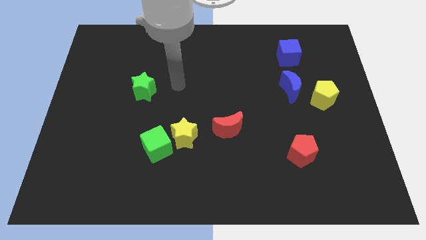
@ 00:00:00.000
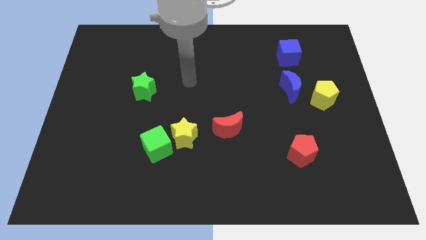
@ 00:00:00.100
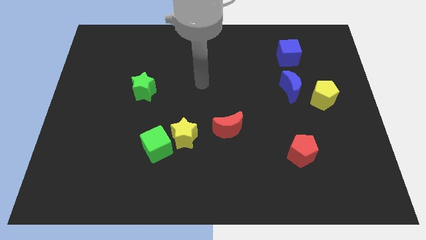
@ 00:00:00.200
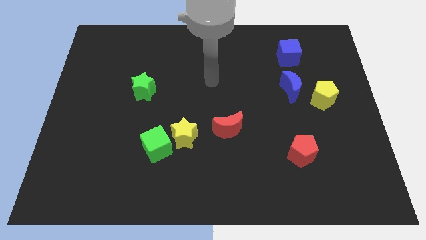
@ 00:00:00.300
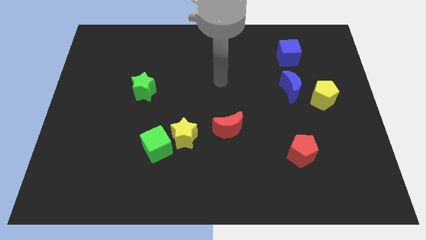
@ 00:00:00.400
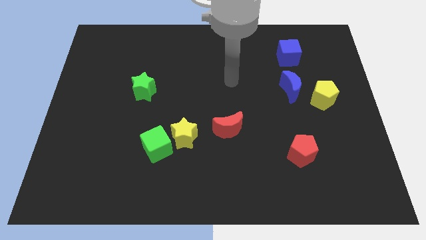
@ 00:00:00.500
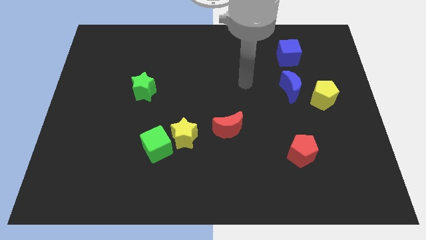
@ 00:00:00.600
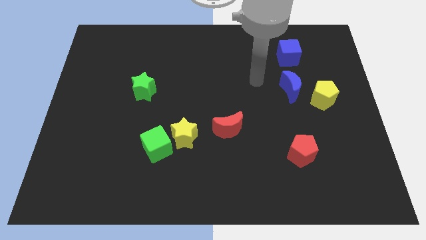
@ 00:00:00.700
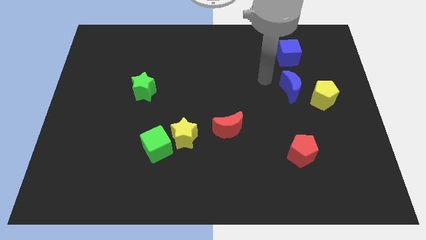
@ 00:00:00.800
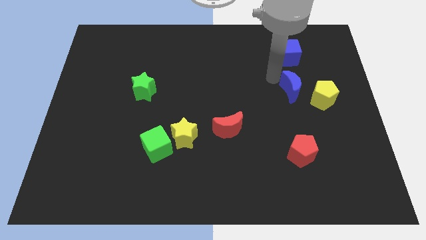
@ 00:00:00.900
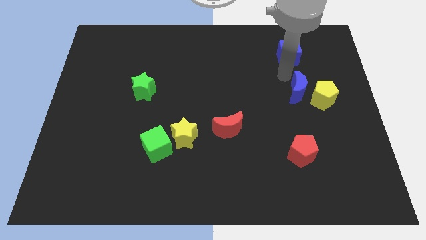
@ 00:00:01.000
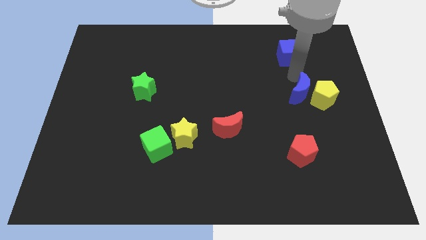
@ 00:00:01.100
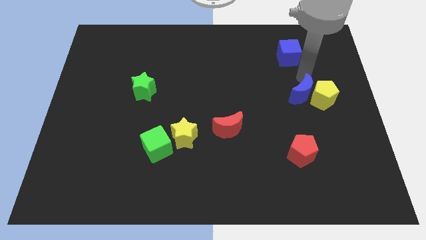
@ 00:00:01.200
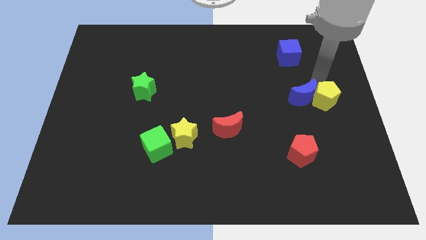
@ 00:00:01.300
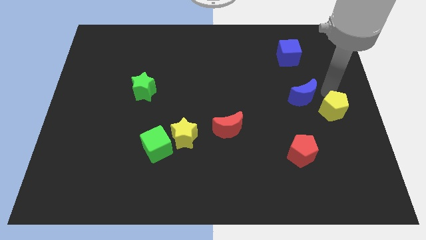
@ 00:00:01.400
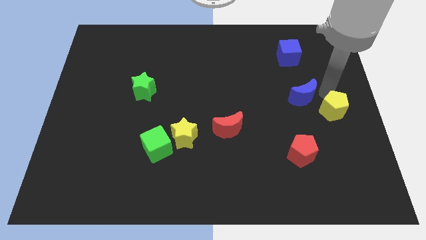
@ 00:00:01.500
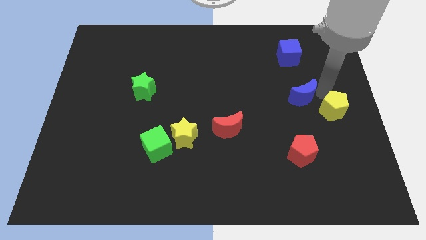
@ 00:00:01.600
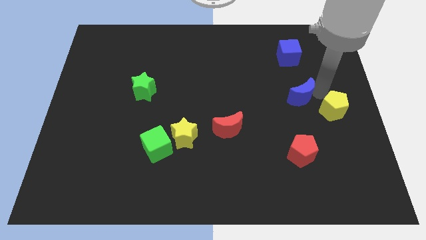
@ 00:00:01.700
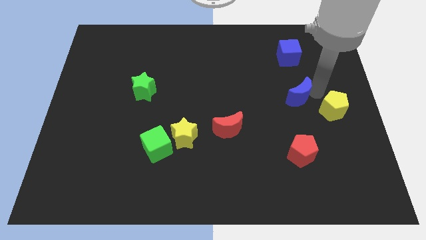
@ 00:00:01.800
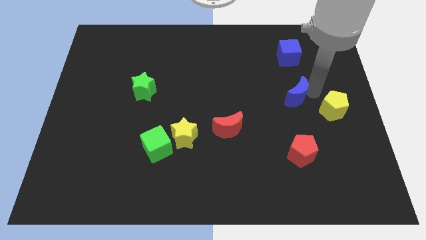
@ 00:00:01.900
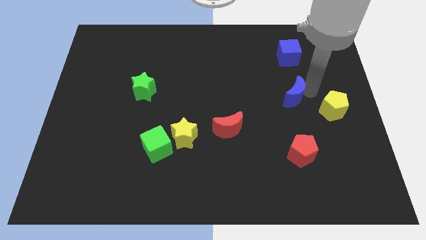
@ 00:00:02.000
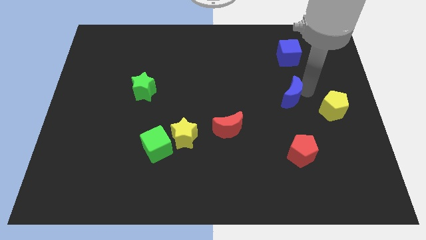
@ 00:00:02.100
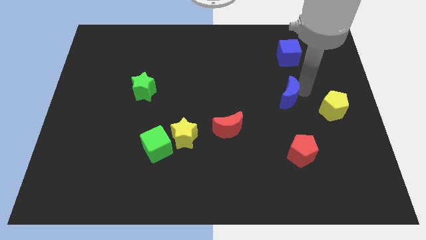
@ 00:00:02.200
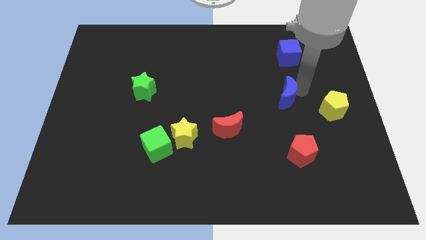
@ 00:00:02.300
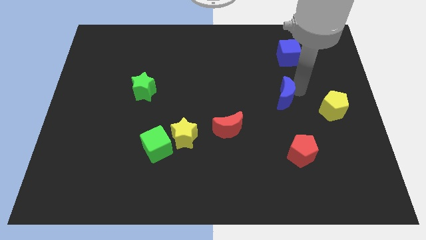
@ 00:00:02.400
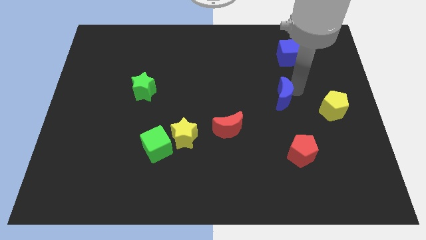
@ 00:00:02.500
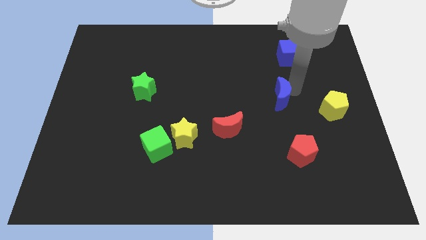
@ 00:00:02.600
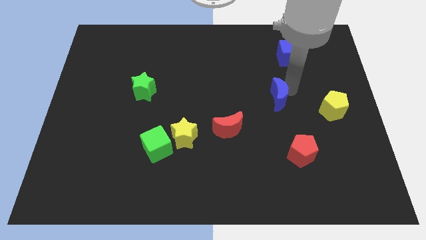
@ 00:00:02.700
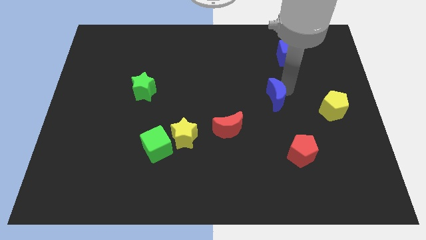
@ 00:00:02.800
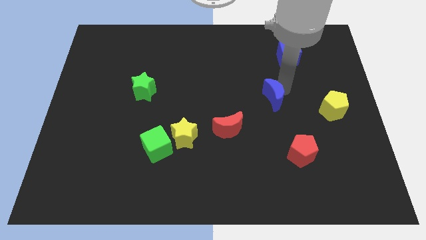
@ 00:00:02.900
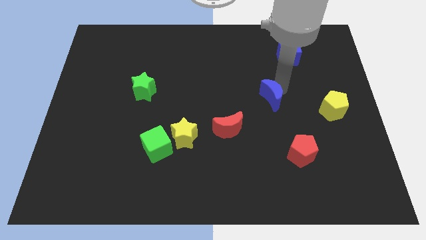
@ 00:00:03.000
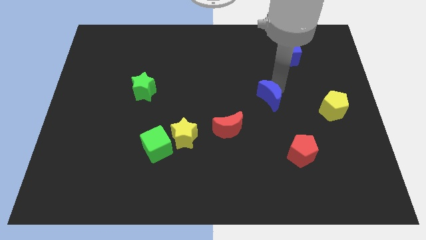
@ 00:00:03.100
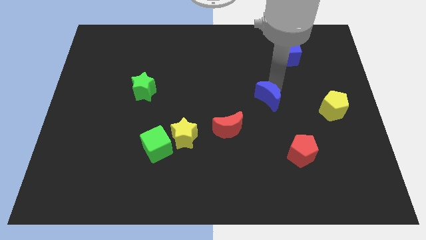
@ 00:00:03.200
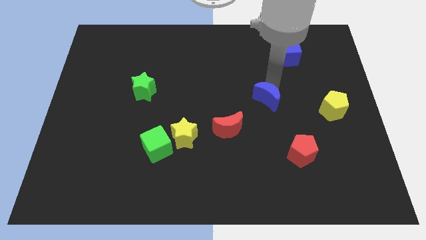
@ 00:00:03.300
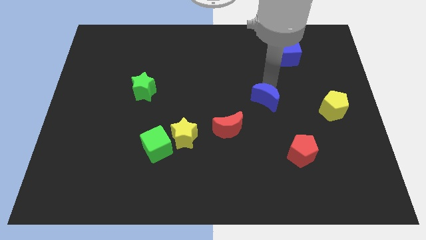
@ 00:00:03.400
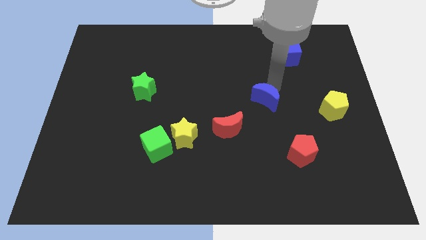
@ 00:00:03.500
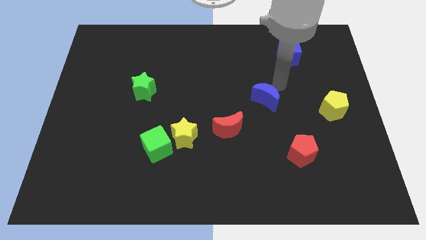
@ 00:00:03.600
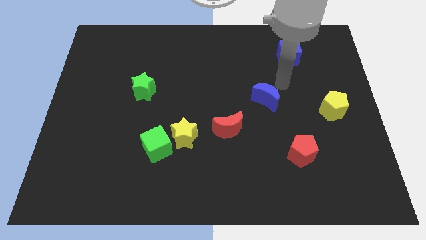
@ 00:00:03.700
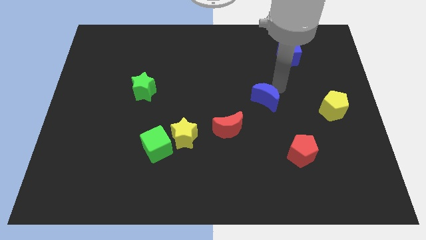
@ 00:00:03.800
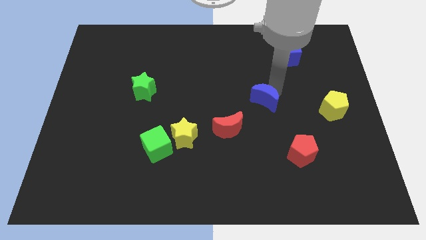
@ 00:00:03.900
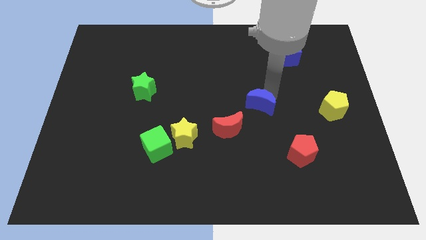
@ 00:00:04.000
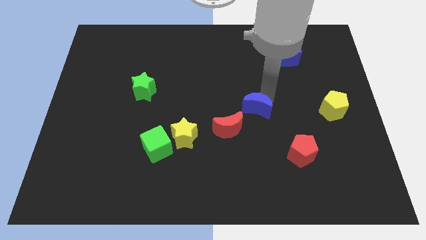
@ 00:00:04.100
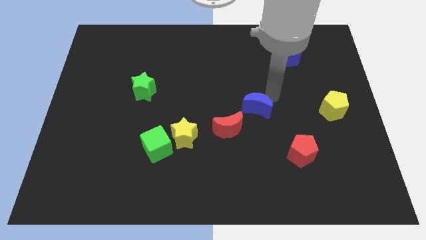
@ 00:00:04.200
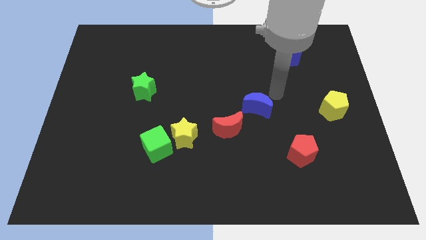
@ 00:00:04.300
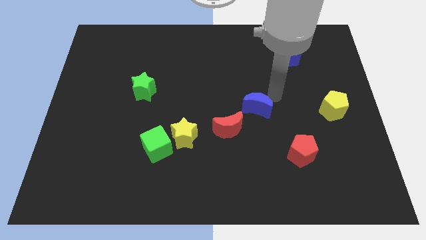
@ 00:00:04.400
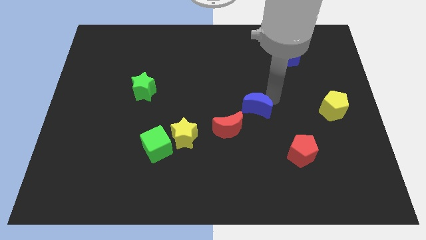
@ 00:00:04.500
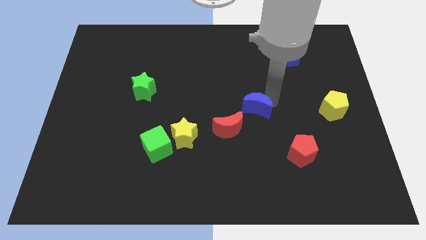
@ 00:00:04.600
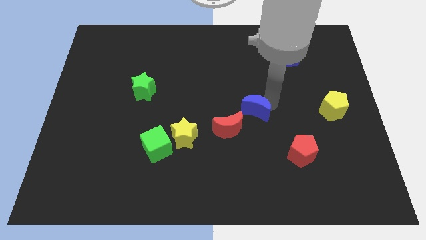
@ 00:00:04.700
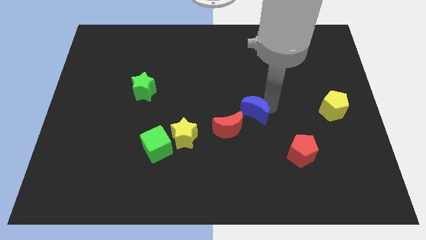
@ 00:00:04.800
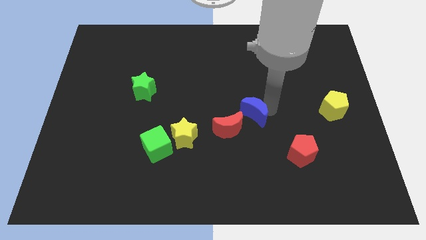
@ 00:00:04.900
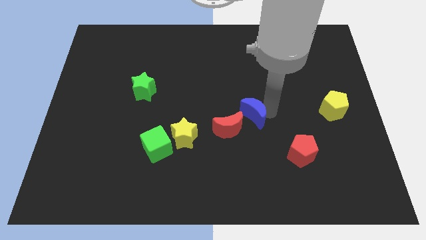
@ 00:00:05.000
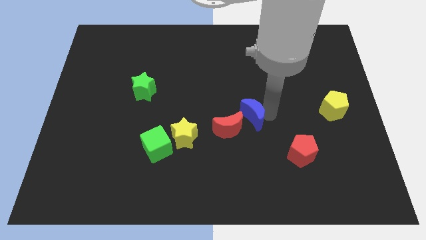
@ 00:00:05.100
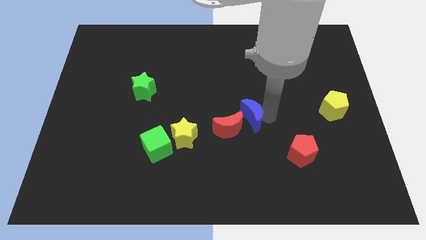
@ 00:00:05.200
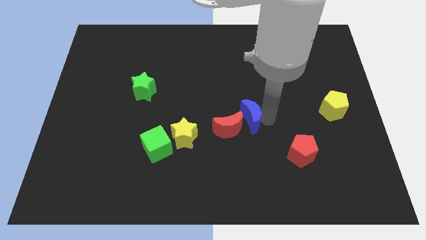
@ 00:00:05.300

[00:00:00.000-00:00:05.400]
push the blue moon close to the red moon
